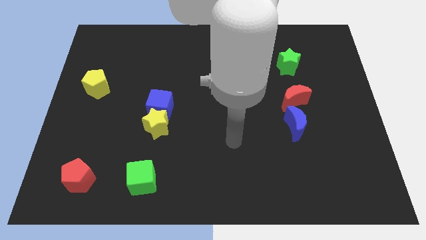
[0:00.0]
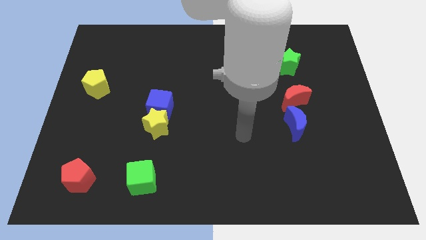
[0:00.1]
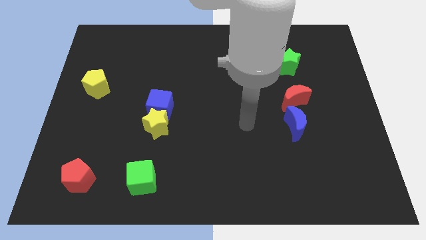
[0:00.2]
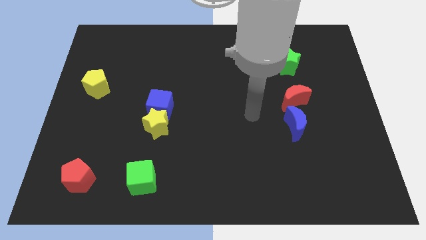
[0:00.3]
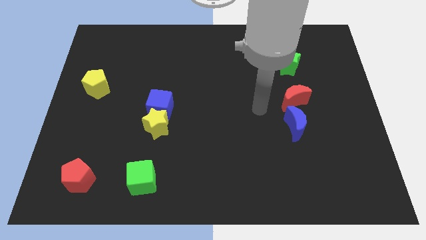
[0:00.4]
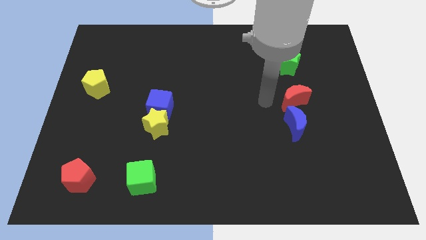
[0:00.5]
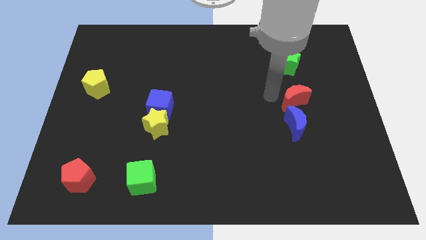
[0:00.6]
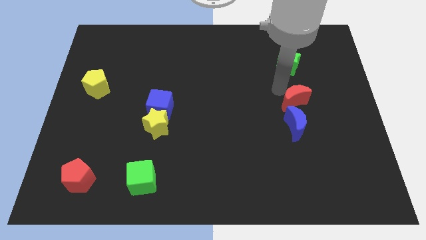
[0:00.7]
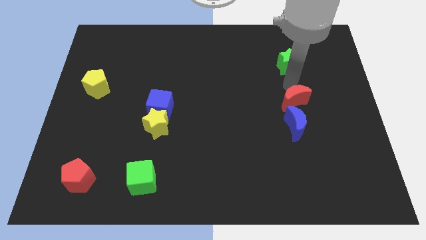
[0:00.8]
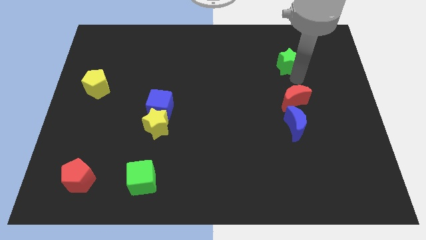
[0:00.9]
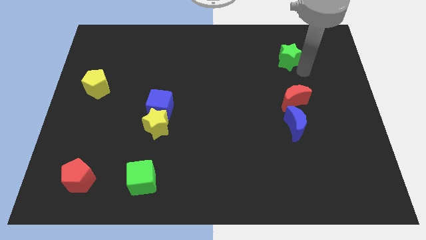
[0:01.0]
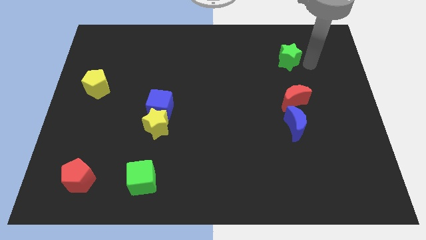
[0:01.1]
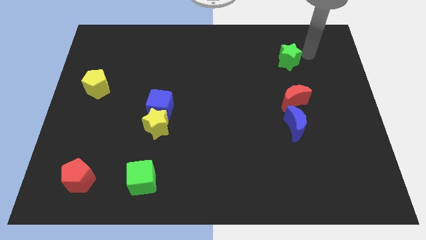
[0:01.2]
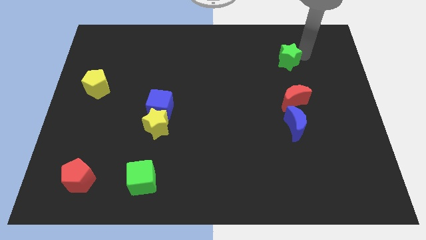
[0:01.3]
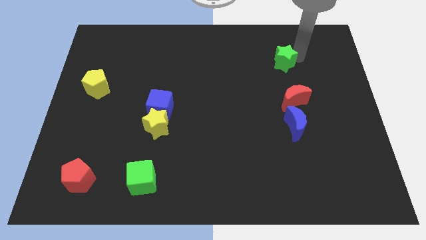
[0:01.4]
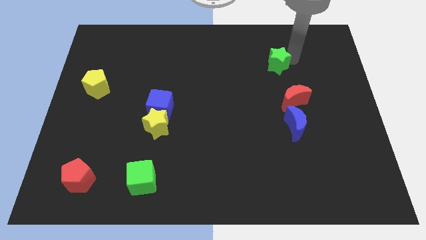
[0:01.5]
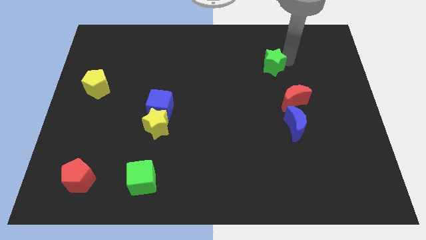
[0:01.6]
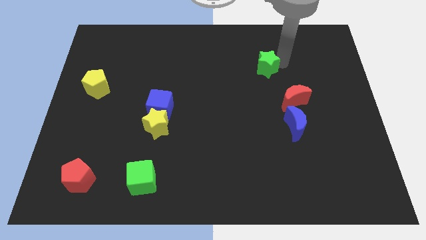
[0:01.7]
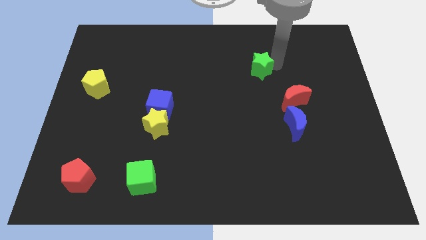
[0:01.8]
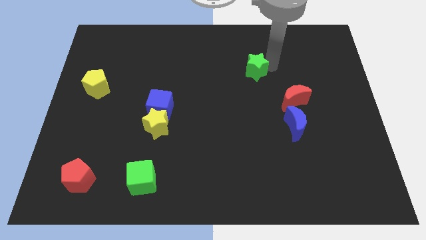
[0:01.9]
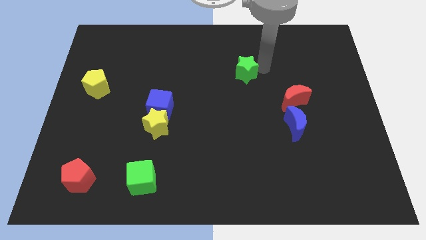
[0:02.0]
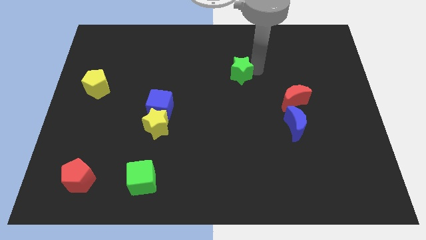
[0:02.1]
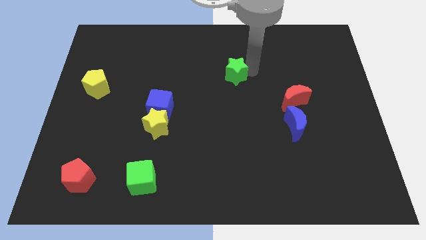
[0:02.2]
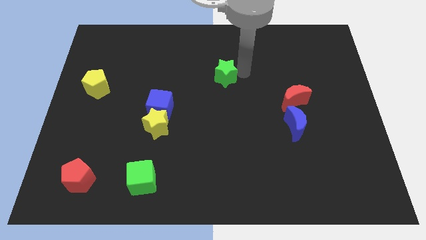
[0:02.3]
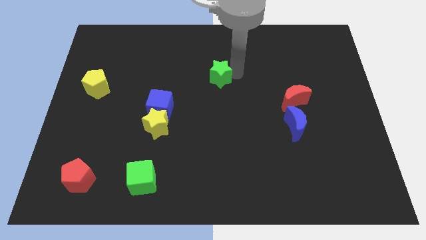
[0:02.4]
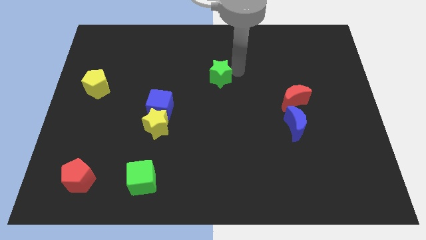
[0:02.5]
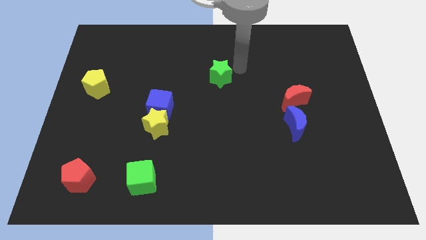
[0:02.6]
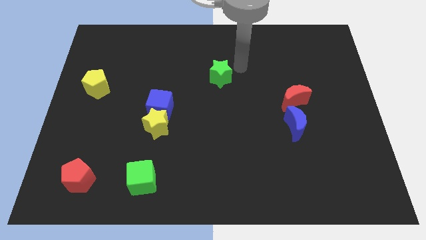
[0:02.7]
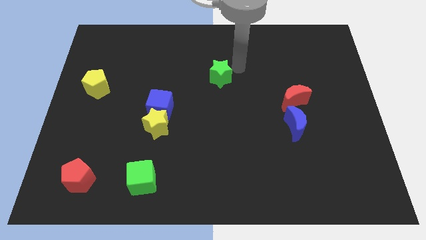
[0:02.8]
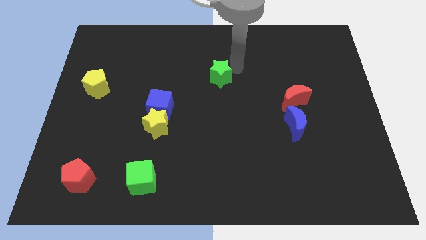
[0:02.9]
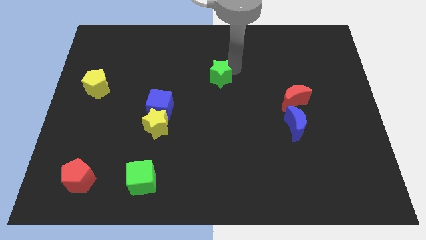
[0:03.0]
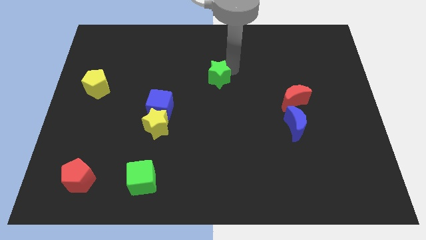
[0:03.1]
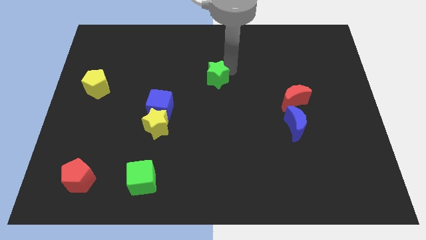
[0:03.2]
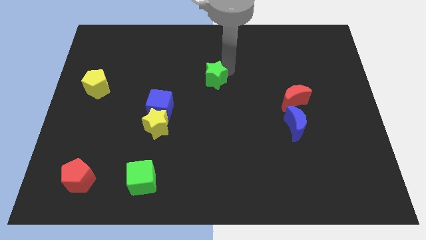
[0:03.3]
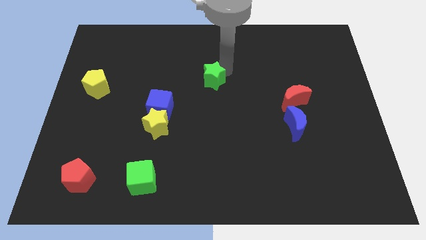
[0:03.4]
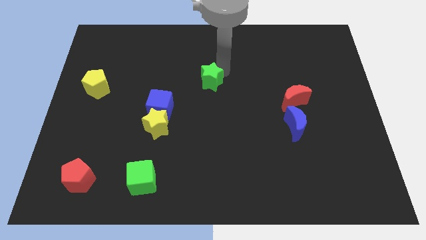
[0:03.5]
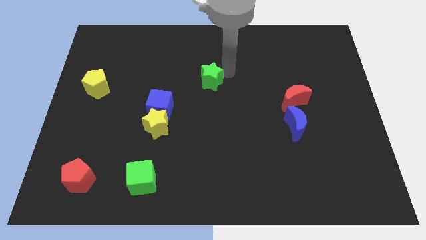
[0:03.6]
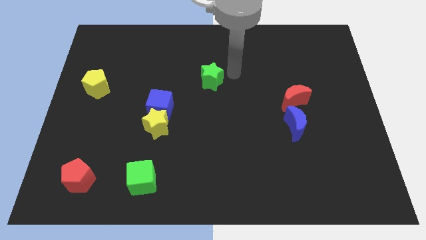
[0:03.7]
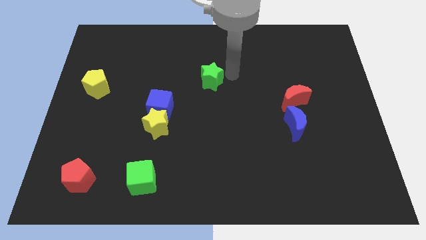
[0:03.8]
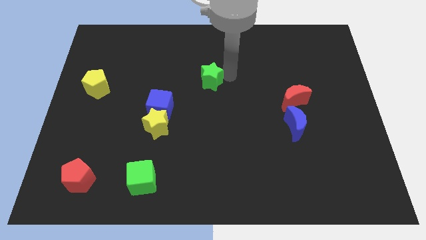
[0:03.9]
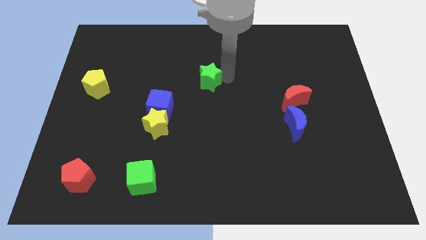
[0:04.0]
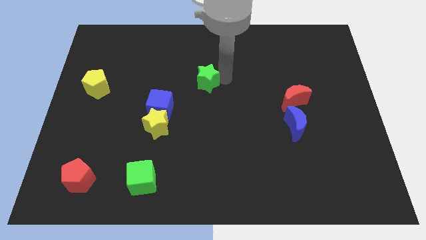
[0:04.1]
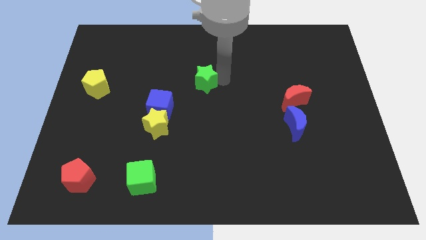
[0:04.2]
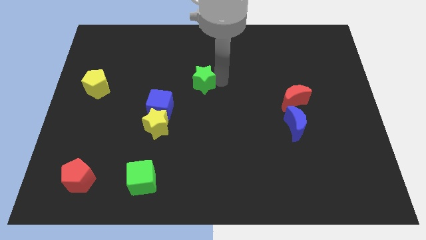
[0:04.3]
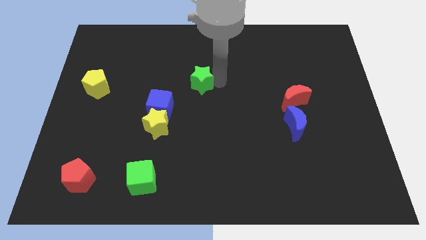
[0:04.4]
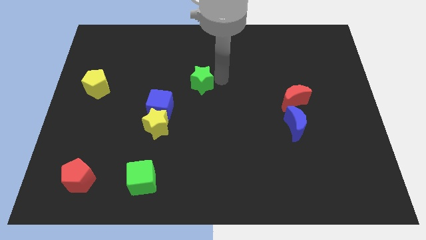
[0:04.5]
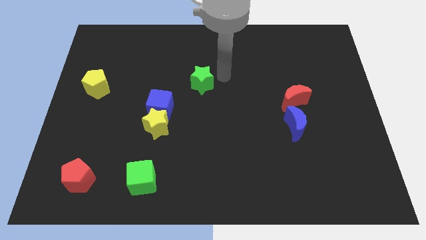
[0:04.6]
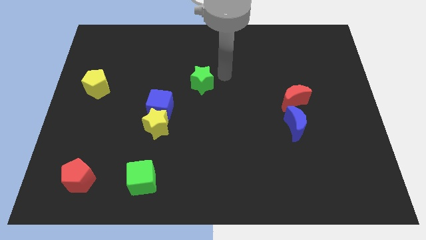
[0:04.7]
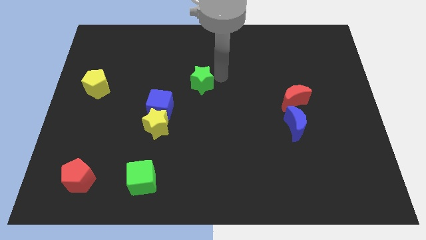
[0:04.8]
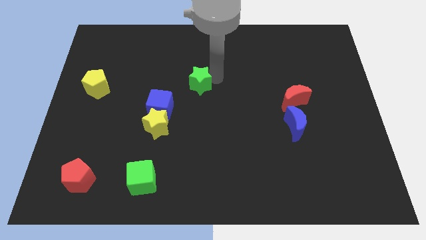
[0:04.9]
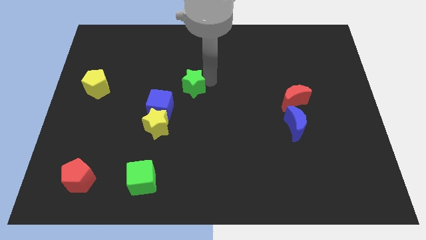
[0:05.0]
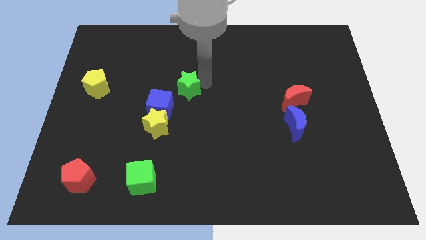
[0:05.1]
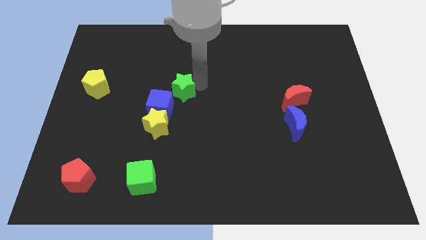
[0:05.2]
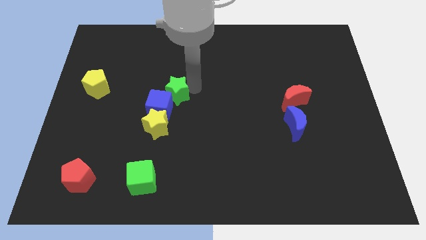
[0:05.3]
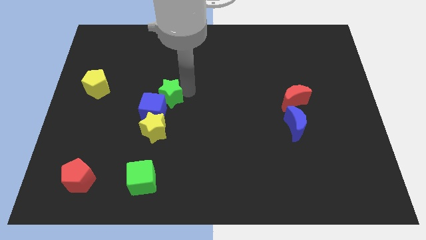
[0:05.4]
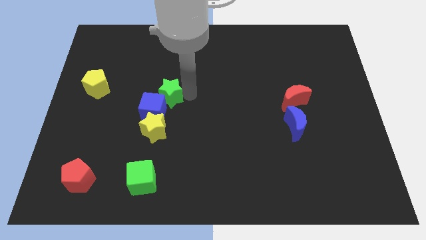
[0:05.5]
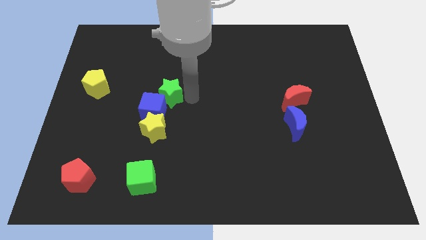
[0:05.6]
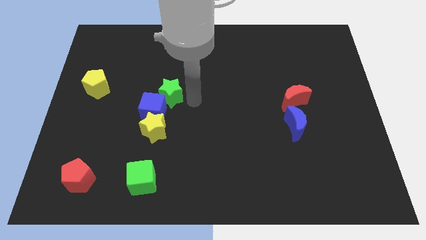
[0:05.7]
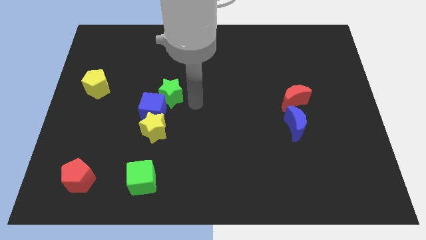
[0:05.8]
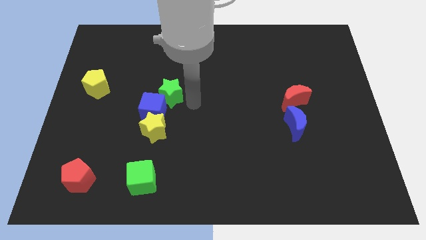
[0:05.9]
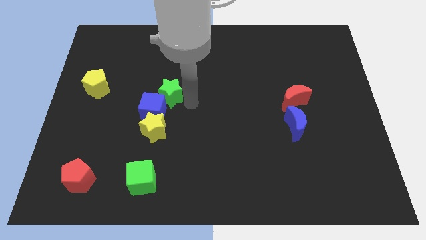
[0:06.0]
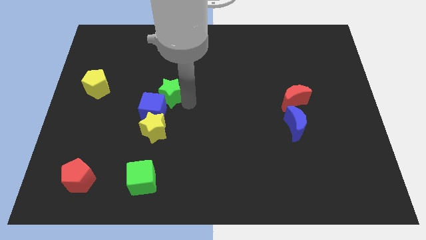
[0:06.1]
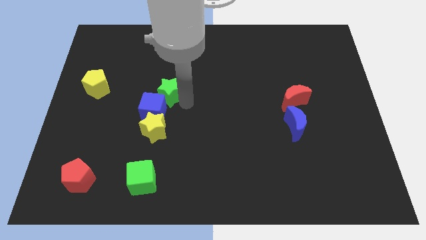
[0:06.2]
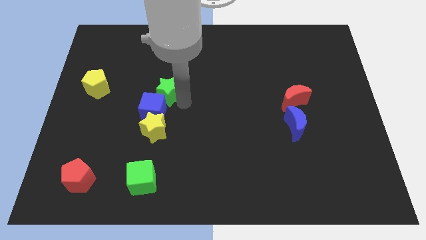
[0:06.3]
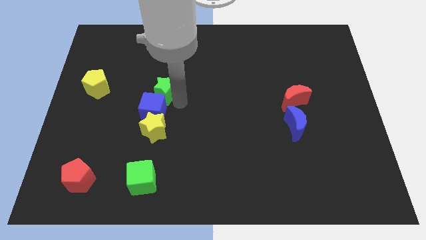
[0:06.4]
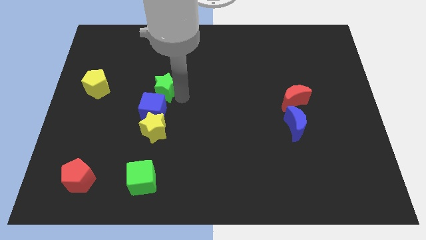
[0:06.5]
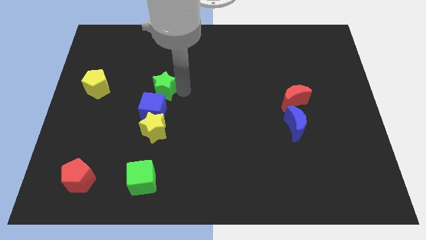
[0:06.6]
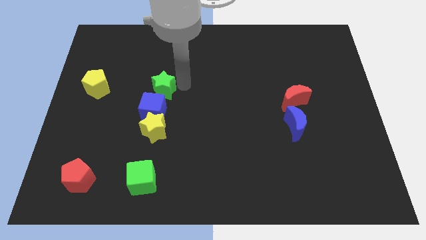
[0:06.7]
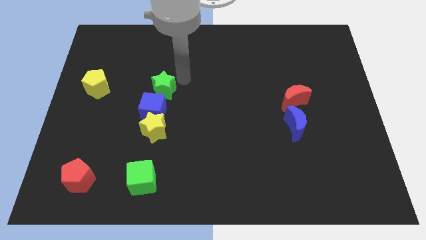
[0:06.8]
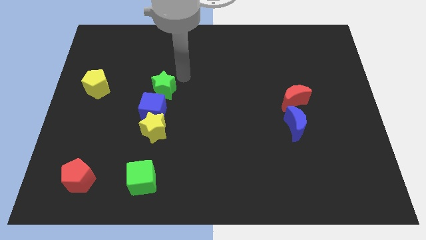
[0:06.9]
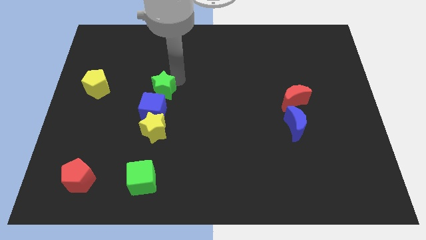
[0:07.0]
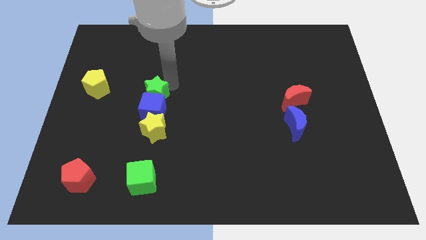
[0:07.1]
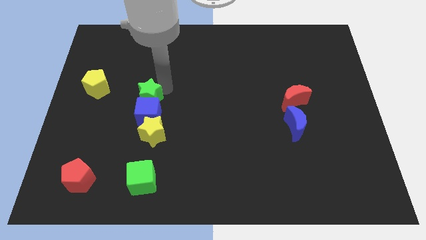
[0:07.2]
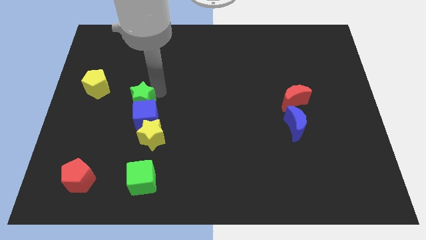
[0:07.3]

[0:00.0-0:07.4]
put the green star to the top left side of the yellow star

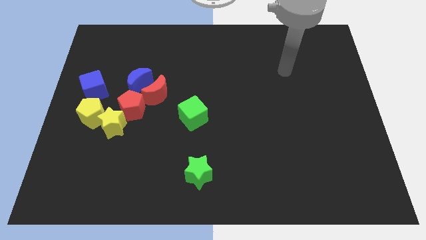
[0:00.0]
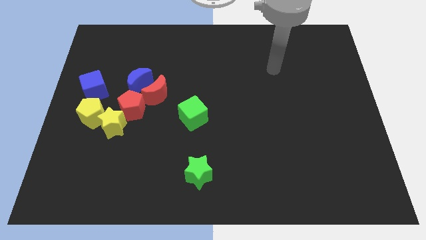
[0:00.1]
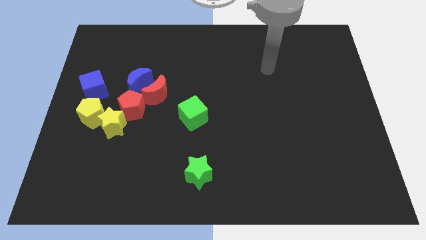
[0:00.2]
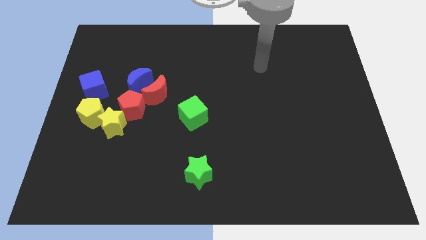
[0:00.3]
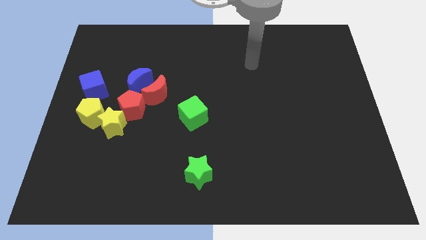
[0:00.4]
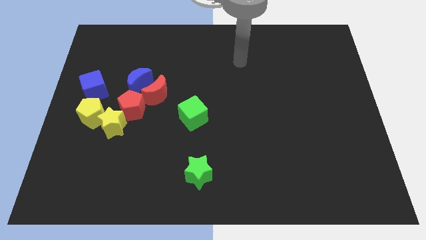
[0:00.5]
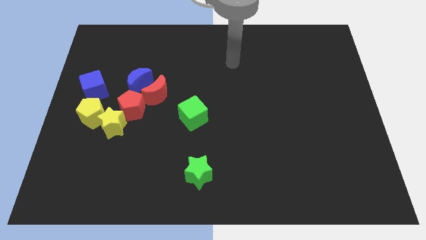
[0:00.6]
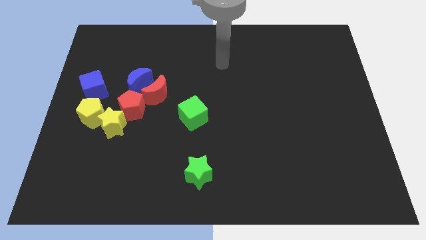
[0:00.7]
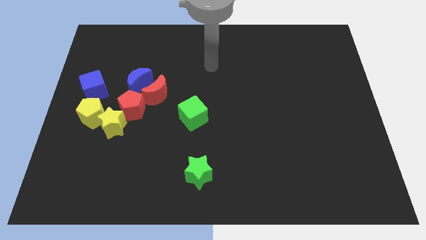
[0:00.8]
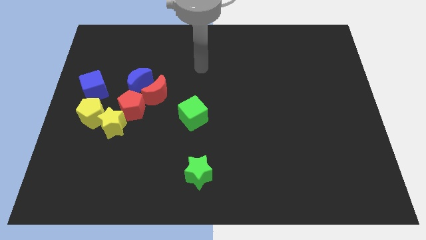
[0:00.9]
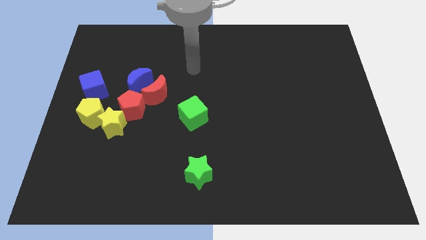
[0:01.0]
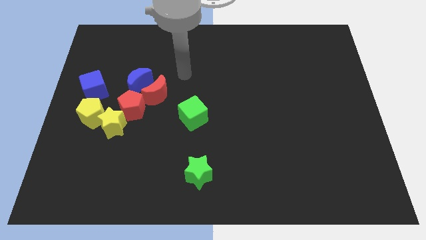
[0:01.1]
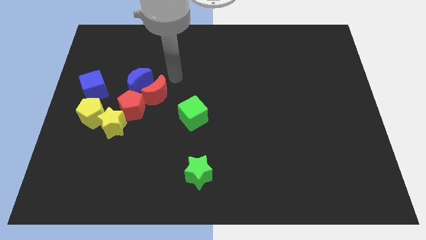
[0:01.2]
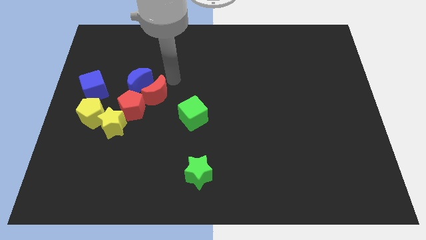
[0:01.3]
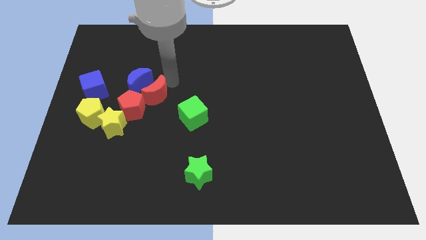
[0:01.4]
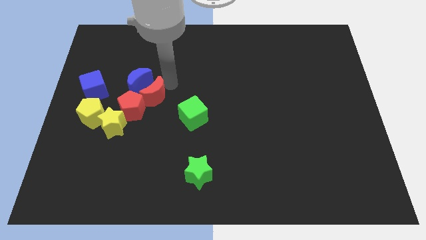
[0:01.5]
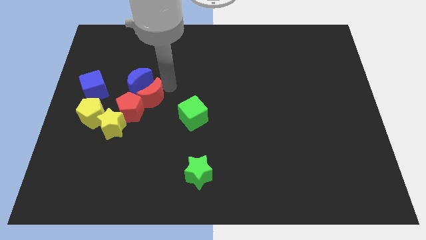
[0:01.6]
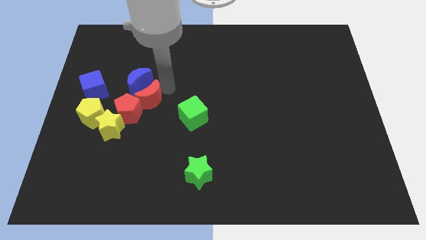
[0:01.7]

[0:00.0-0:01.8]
slide the red moon right of the yellow pentagon
